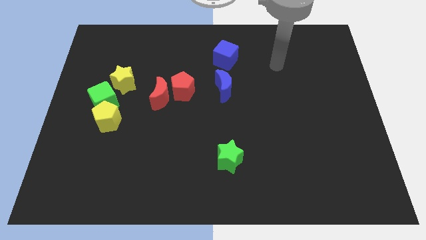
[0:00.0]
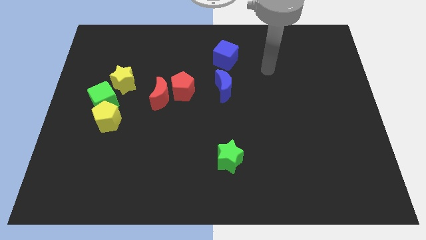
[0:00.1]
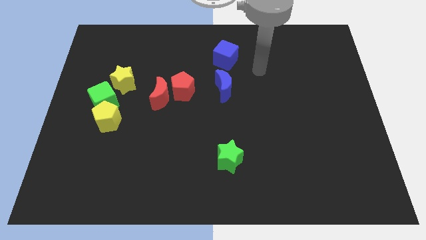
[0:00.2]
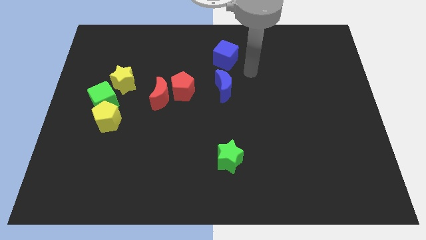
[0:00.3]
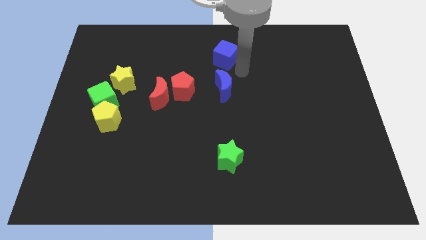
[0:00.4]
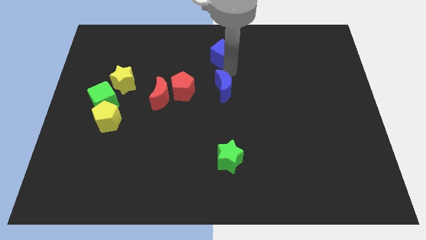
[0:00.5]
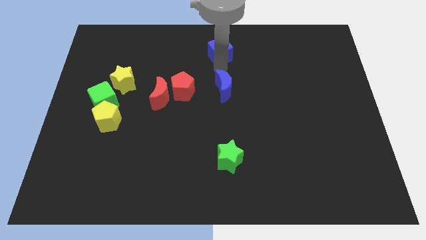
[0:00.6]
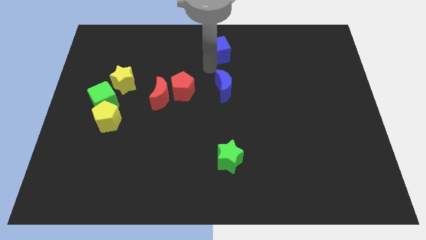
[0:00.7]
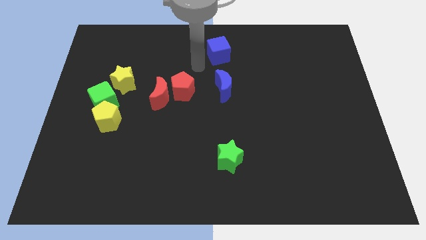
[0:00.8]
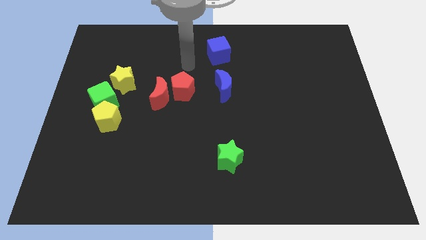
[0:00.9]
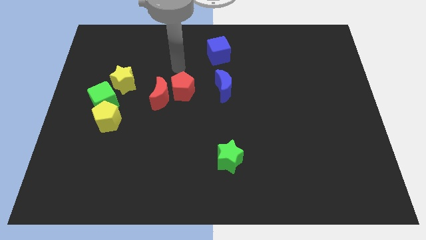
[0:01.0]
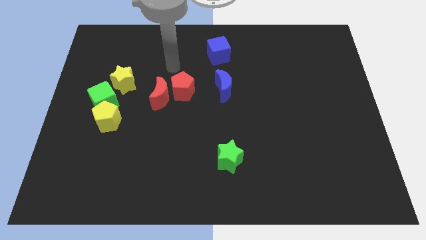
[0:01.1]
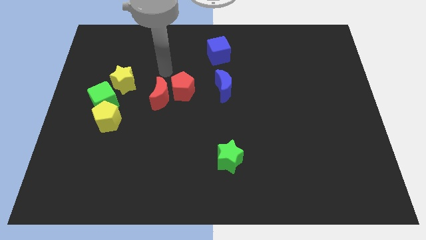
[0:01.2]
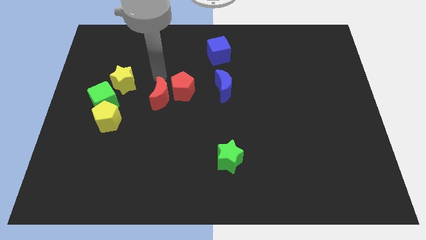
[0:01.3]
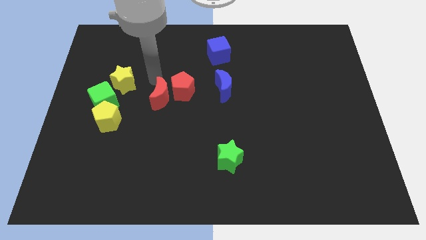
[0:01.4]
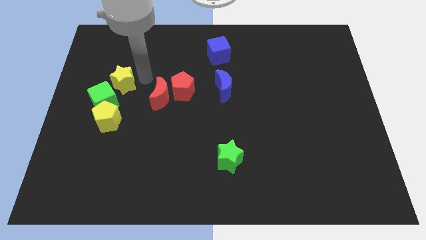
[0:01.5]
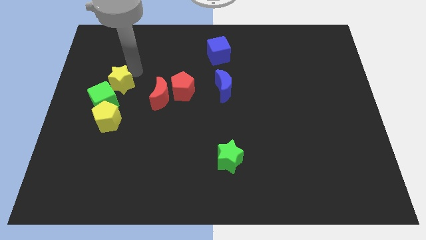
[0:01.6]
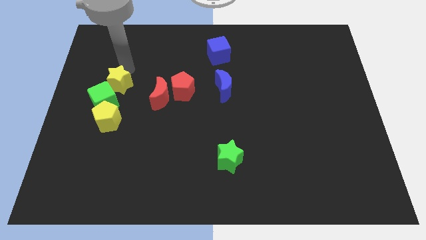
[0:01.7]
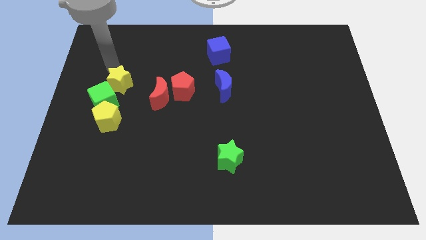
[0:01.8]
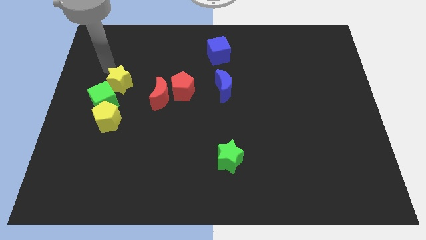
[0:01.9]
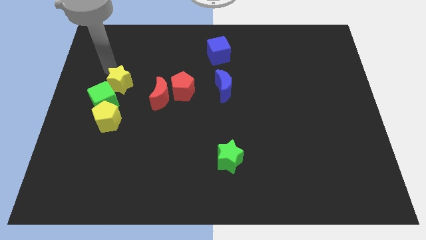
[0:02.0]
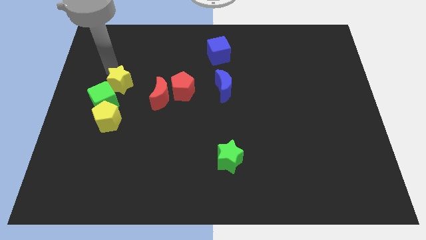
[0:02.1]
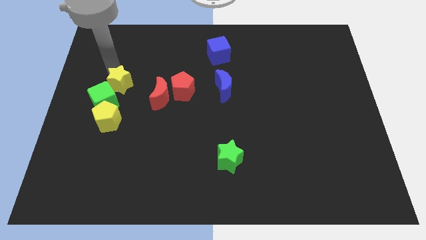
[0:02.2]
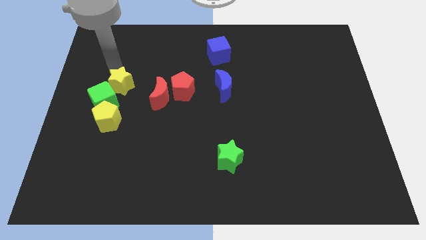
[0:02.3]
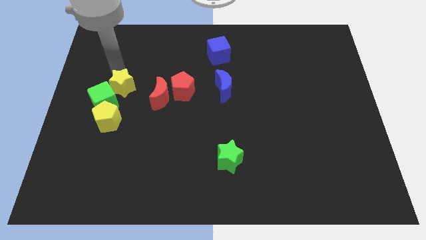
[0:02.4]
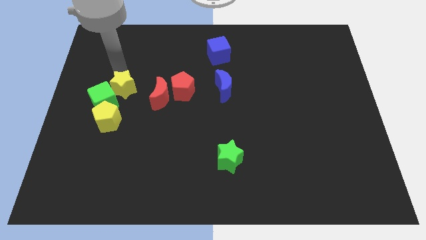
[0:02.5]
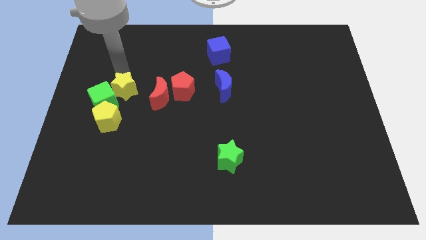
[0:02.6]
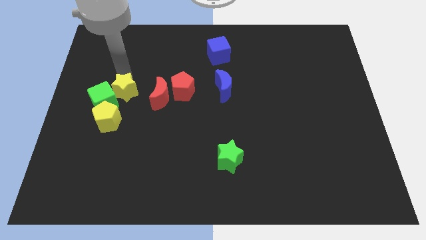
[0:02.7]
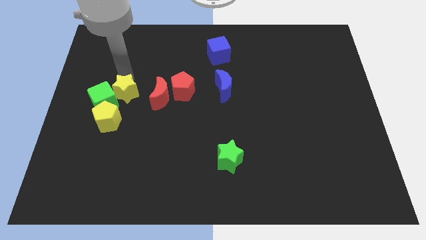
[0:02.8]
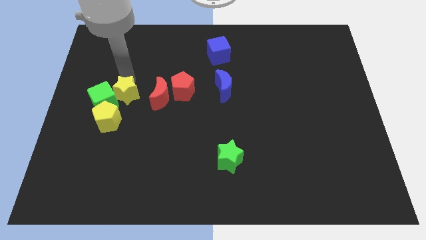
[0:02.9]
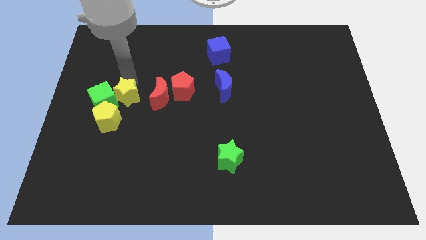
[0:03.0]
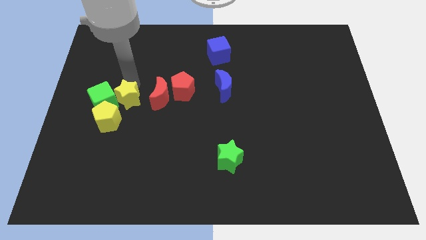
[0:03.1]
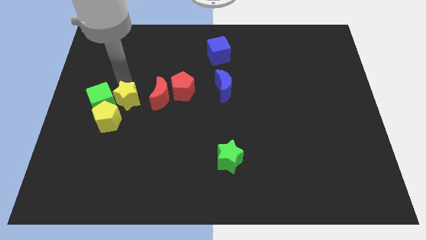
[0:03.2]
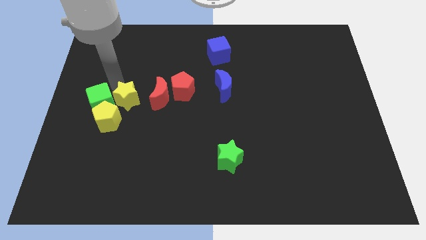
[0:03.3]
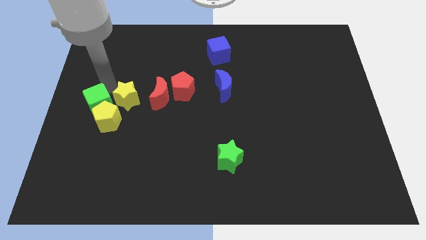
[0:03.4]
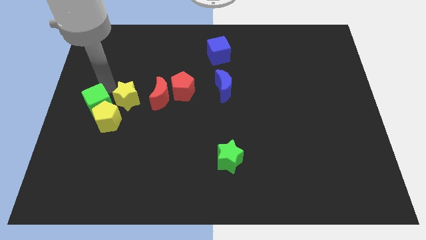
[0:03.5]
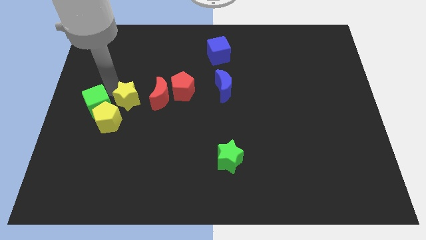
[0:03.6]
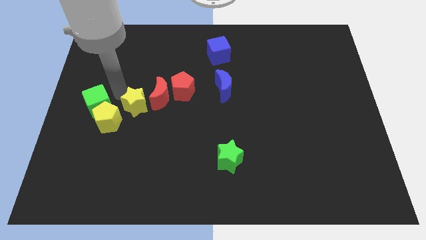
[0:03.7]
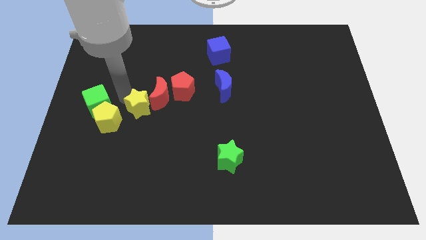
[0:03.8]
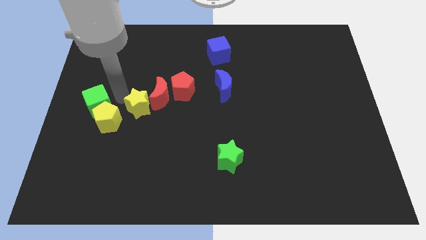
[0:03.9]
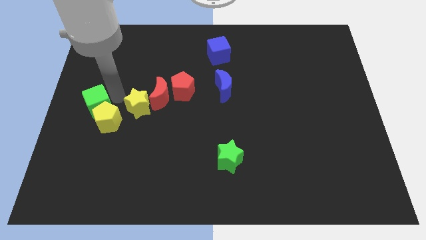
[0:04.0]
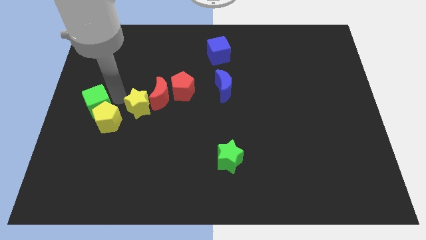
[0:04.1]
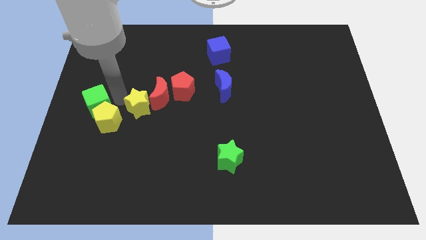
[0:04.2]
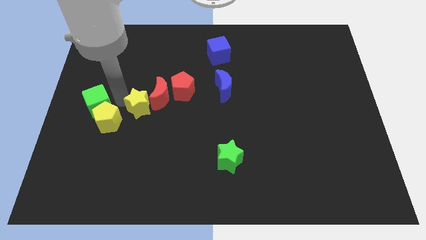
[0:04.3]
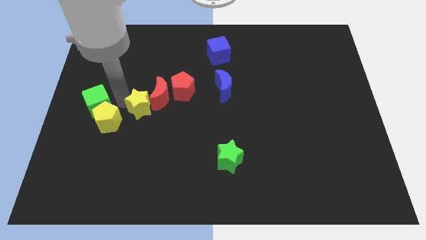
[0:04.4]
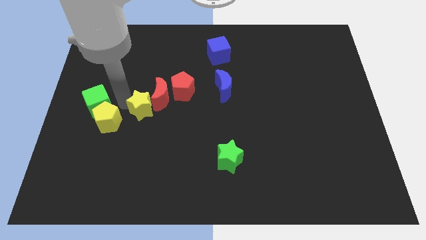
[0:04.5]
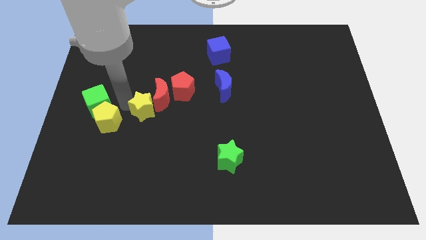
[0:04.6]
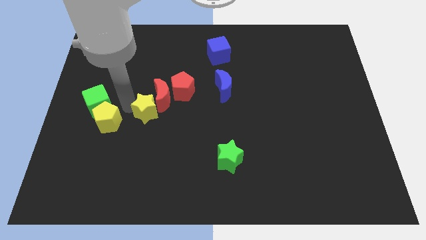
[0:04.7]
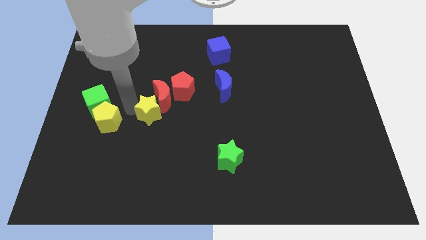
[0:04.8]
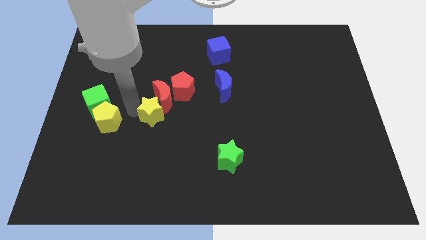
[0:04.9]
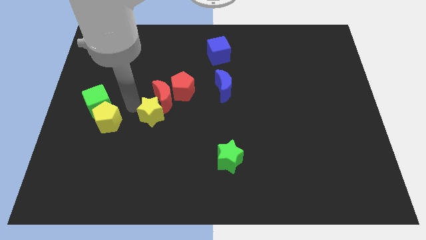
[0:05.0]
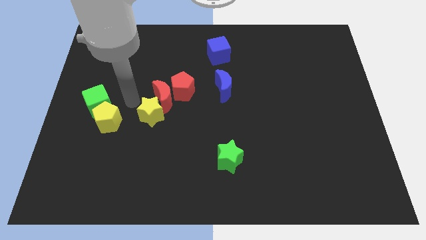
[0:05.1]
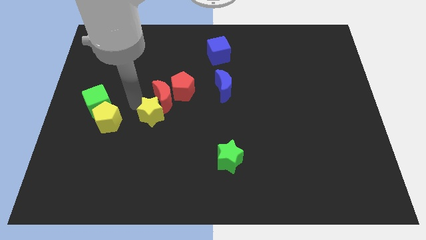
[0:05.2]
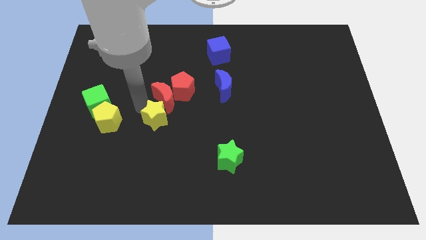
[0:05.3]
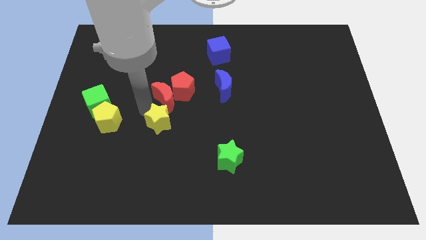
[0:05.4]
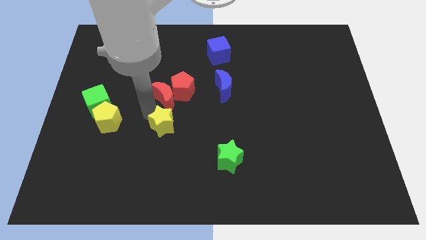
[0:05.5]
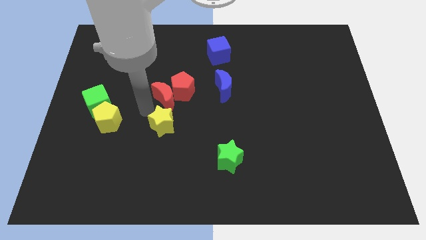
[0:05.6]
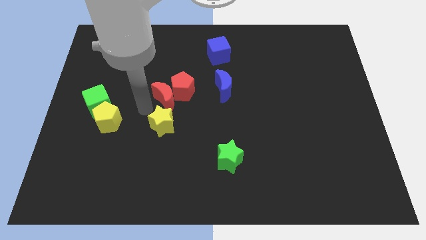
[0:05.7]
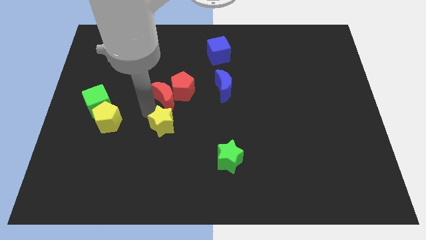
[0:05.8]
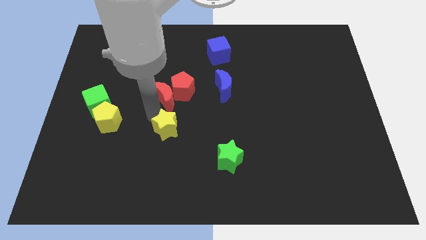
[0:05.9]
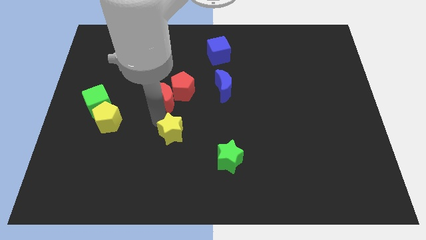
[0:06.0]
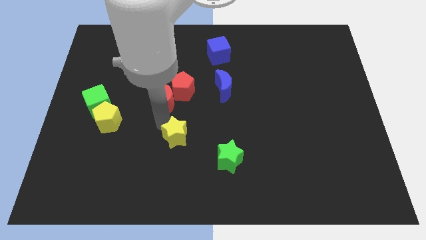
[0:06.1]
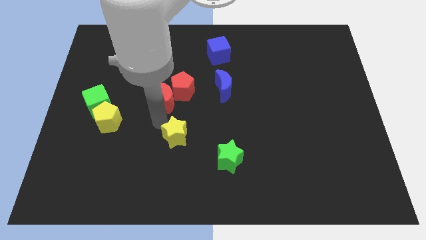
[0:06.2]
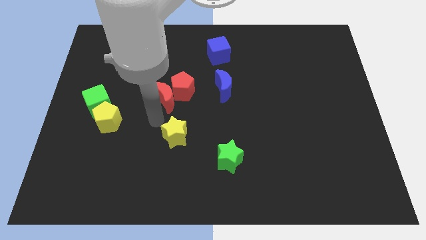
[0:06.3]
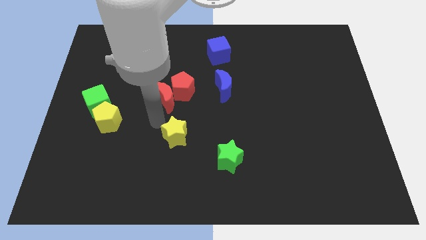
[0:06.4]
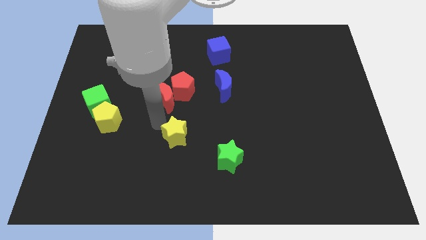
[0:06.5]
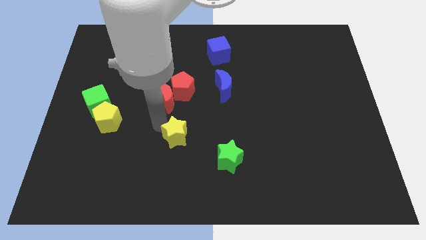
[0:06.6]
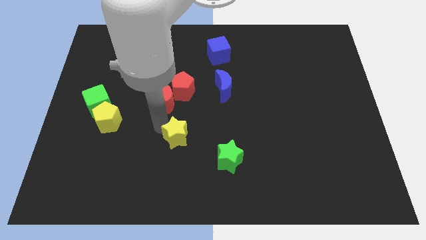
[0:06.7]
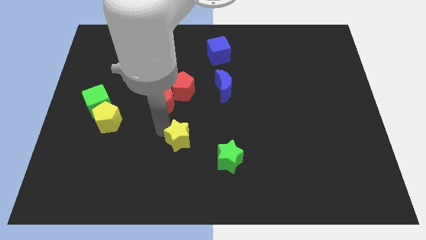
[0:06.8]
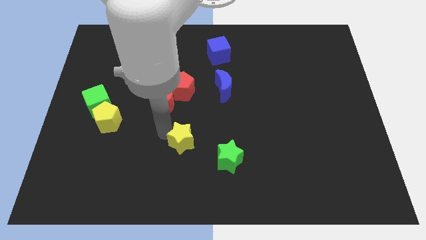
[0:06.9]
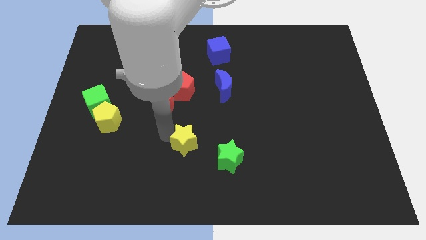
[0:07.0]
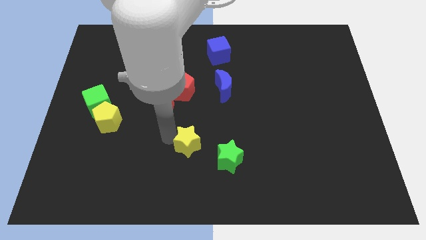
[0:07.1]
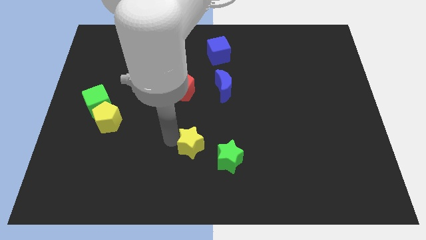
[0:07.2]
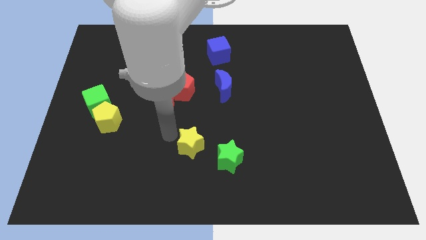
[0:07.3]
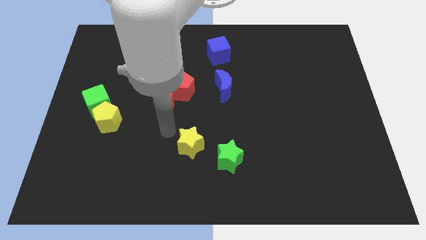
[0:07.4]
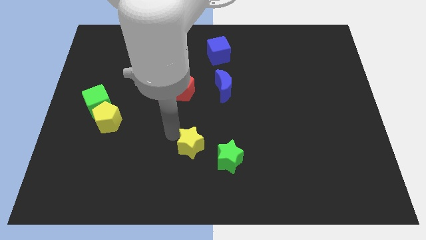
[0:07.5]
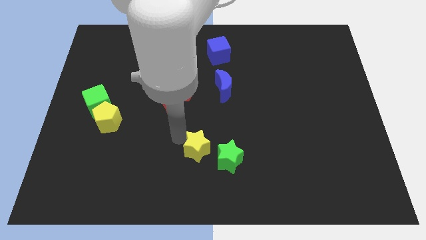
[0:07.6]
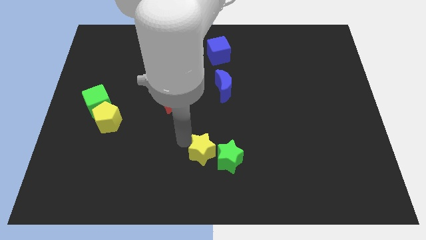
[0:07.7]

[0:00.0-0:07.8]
move the yellow star to the green star
